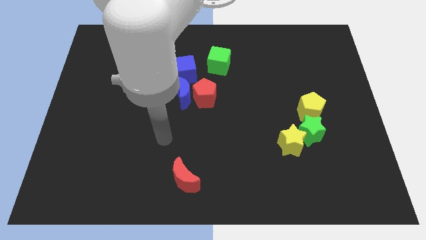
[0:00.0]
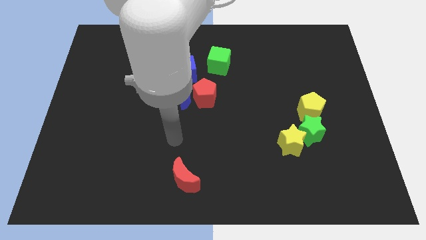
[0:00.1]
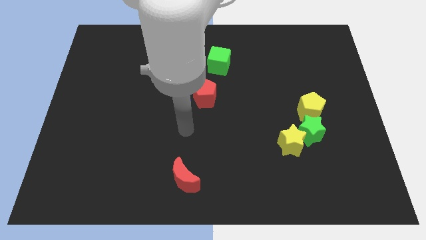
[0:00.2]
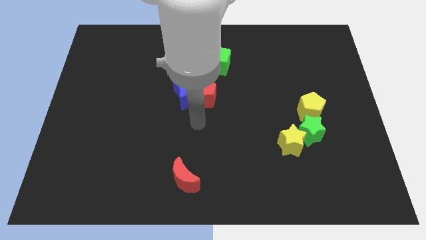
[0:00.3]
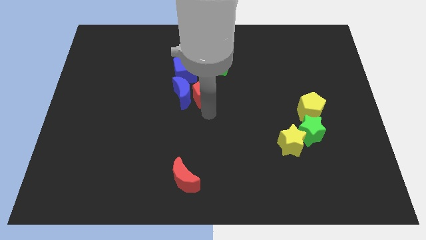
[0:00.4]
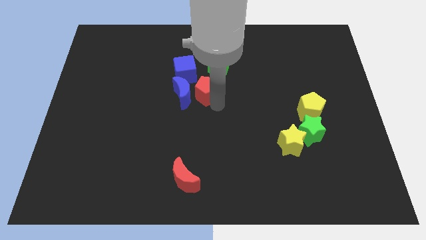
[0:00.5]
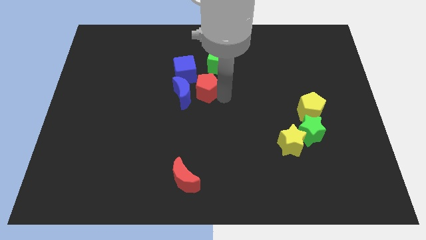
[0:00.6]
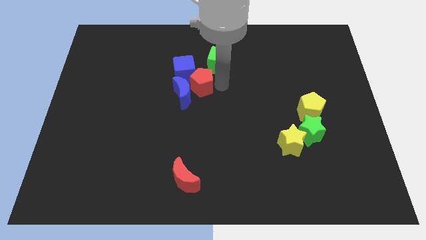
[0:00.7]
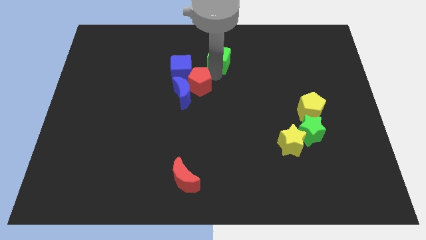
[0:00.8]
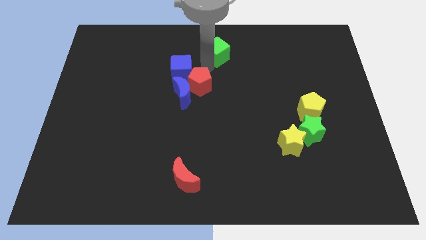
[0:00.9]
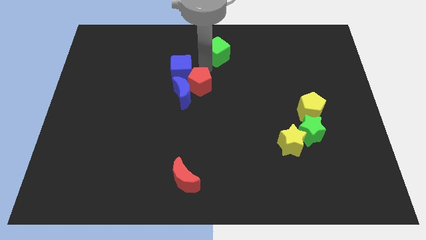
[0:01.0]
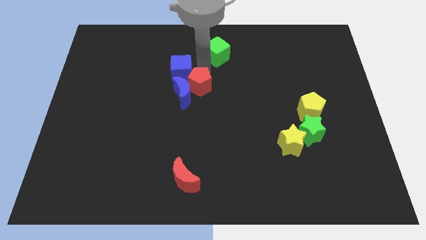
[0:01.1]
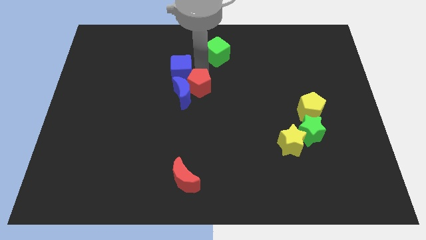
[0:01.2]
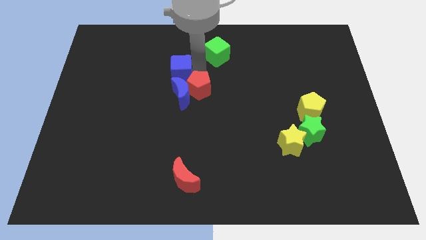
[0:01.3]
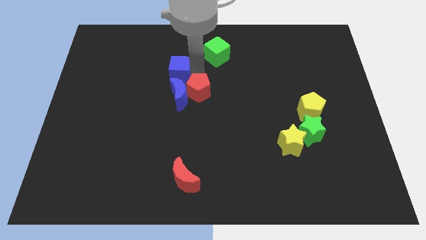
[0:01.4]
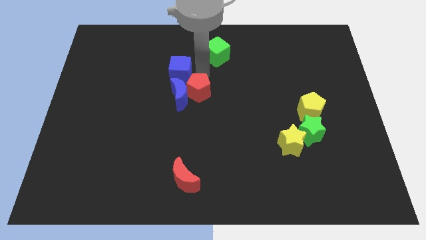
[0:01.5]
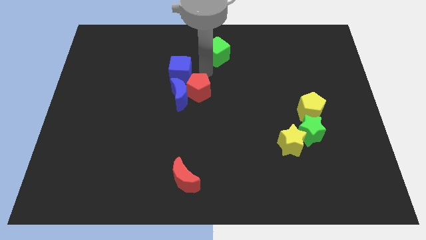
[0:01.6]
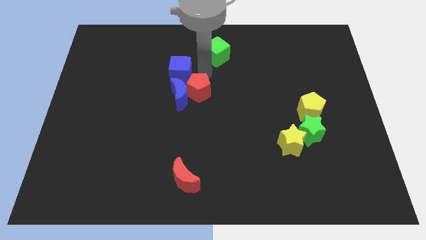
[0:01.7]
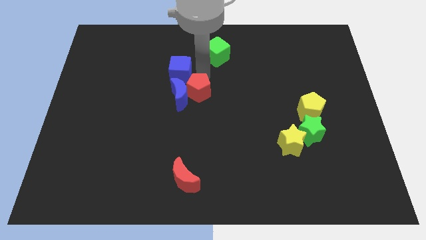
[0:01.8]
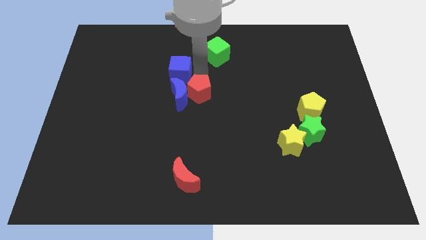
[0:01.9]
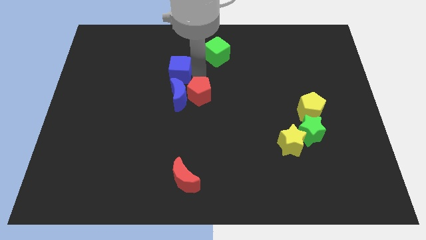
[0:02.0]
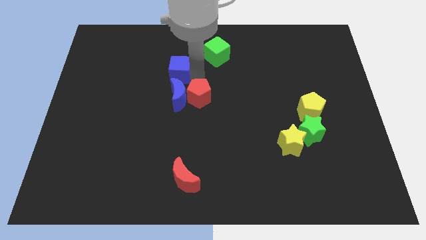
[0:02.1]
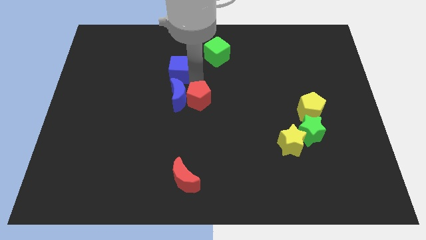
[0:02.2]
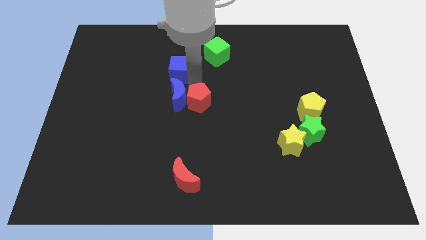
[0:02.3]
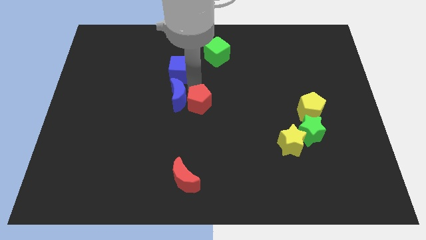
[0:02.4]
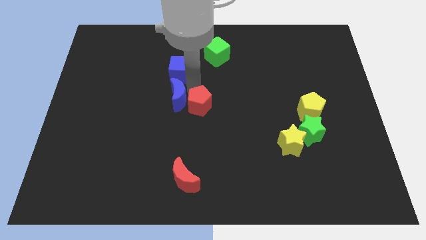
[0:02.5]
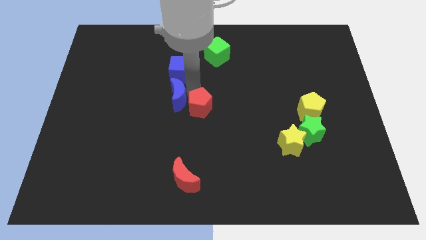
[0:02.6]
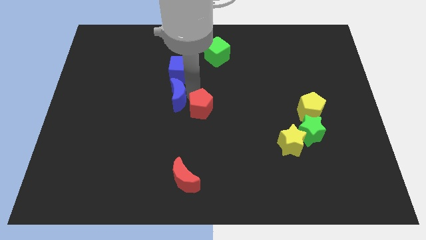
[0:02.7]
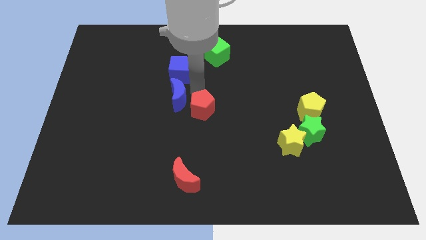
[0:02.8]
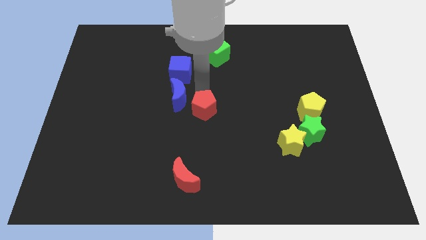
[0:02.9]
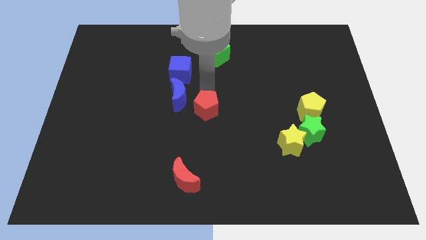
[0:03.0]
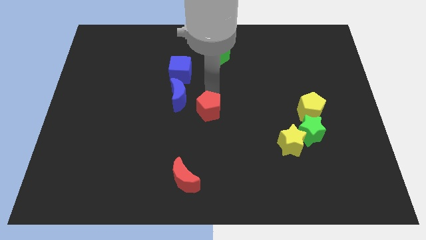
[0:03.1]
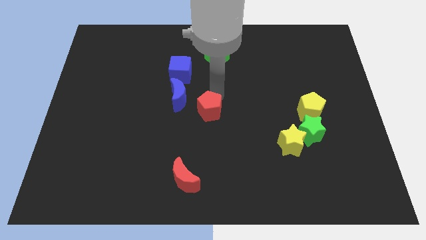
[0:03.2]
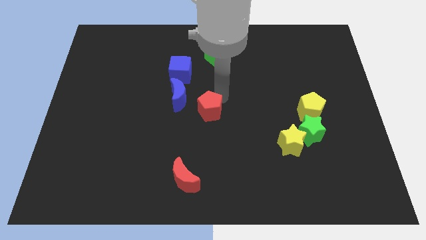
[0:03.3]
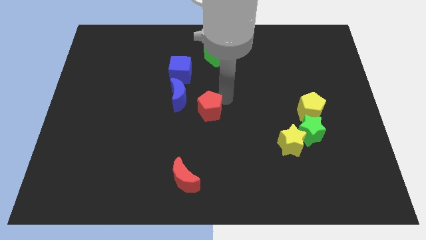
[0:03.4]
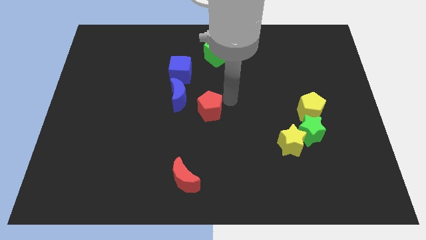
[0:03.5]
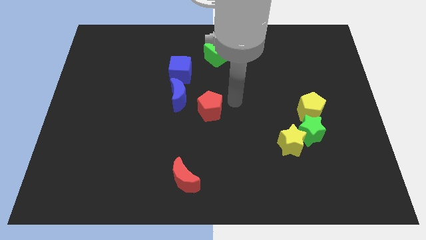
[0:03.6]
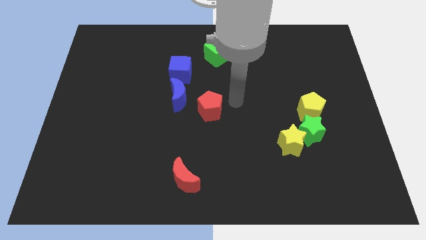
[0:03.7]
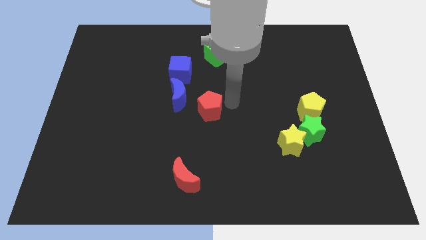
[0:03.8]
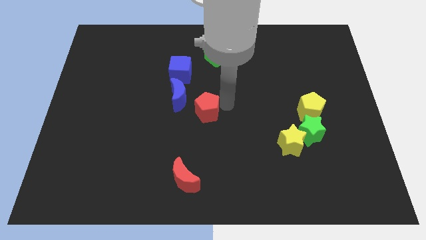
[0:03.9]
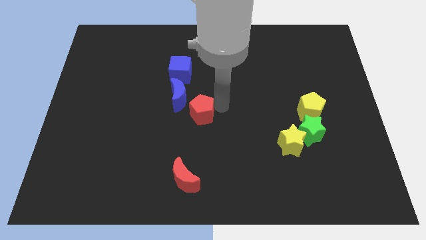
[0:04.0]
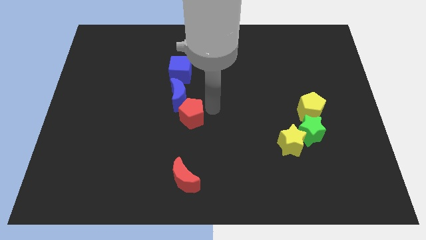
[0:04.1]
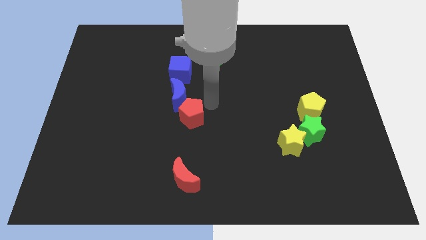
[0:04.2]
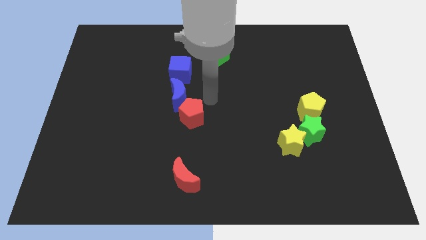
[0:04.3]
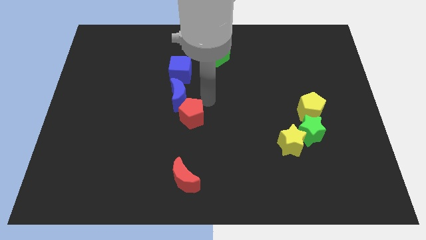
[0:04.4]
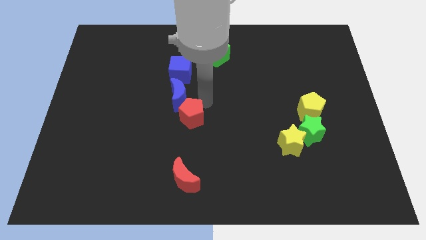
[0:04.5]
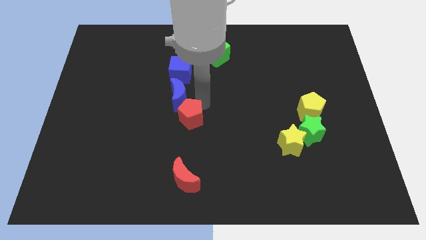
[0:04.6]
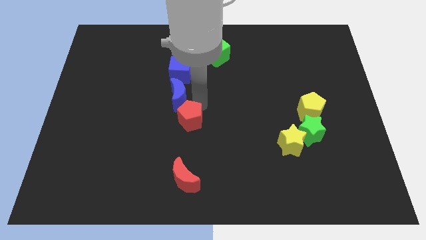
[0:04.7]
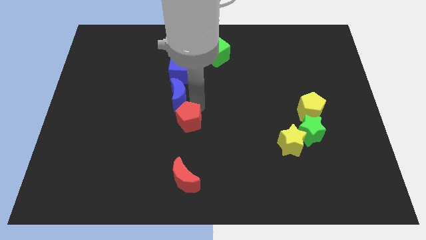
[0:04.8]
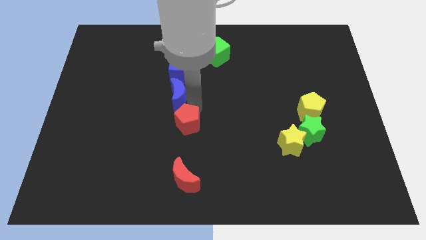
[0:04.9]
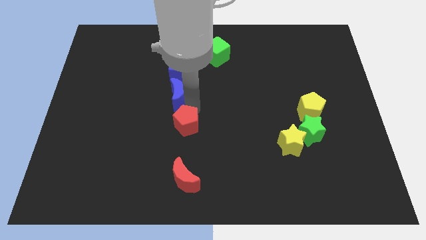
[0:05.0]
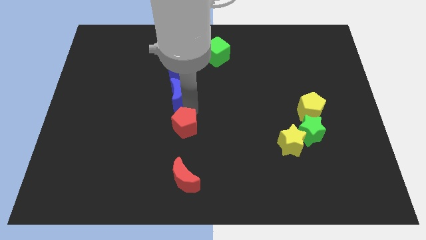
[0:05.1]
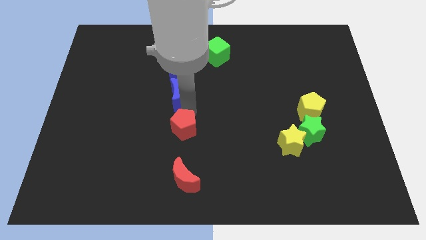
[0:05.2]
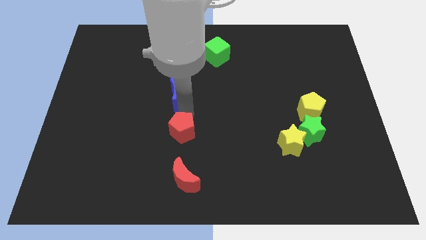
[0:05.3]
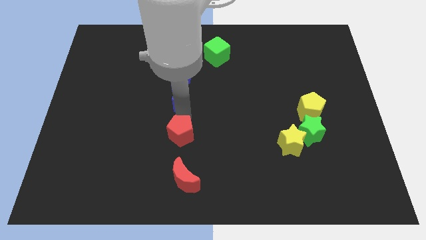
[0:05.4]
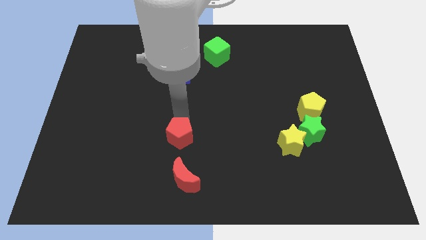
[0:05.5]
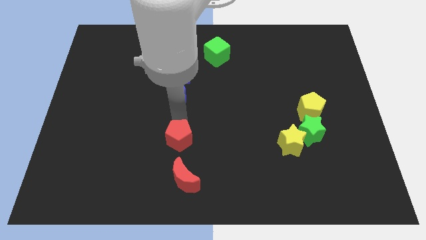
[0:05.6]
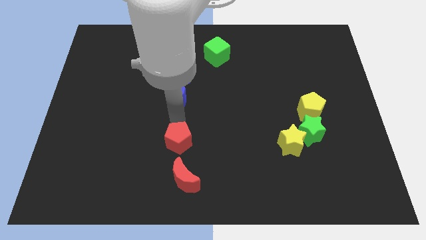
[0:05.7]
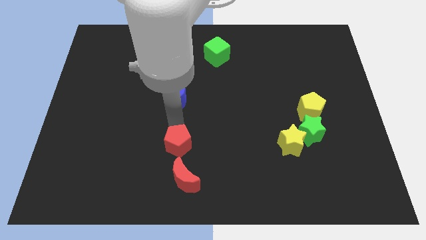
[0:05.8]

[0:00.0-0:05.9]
move the red pentagon to the top left of the red moon

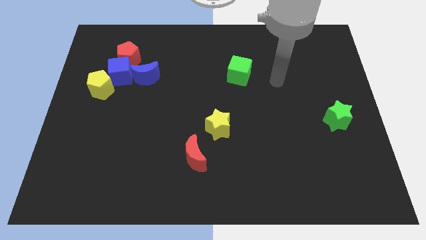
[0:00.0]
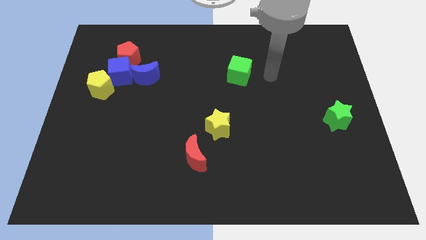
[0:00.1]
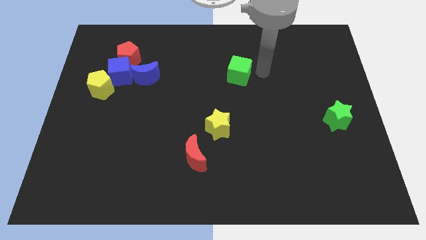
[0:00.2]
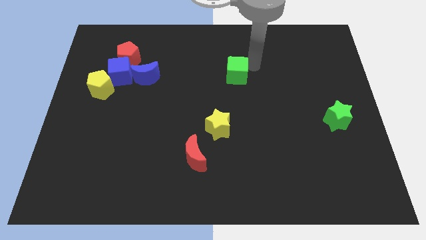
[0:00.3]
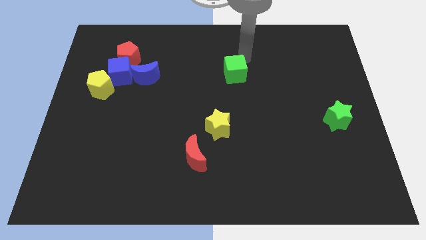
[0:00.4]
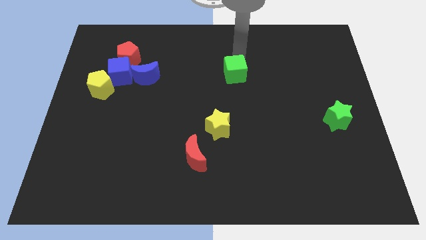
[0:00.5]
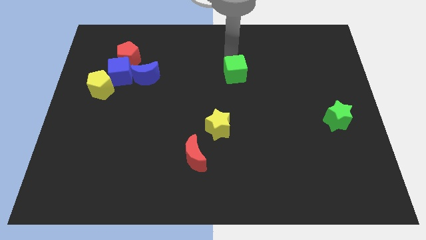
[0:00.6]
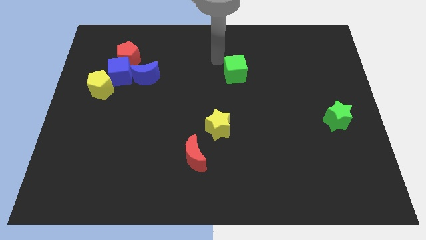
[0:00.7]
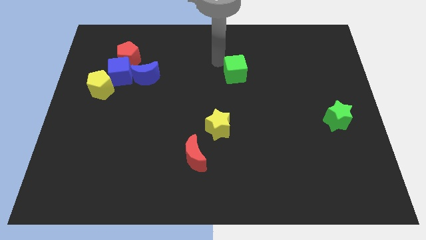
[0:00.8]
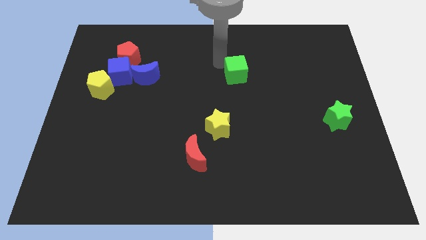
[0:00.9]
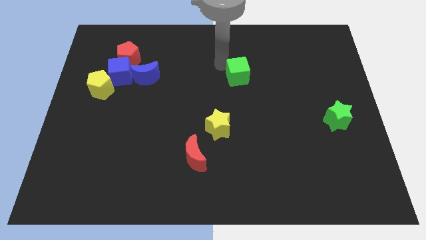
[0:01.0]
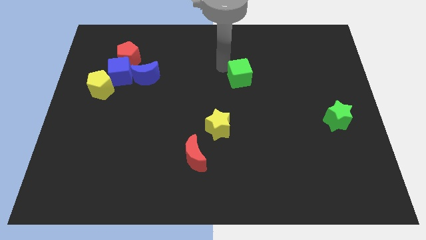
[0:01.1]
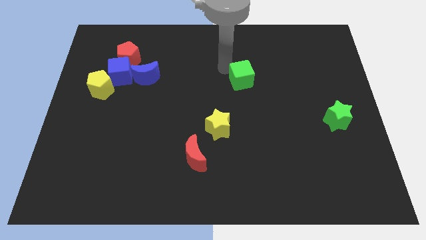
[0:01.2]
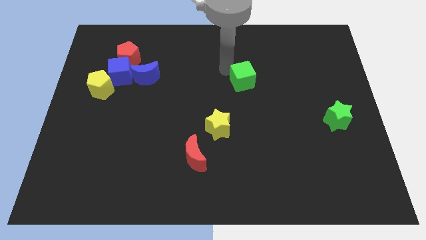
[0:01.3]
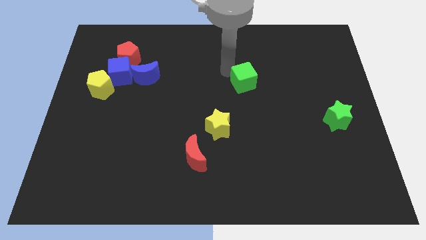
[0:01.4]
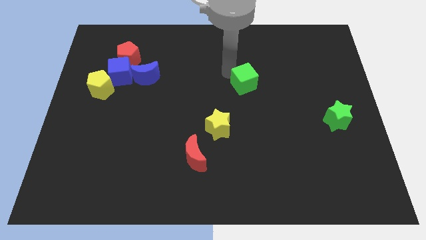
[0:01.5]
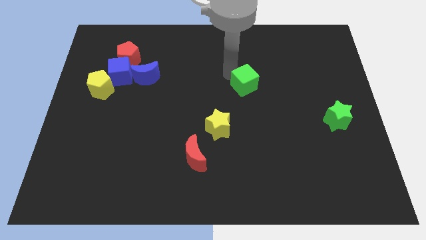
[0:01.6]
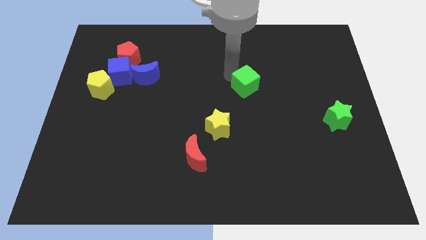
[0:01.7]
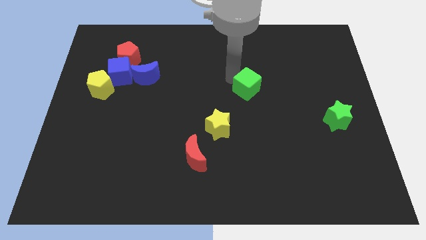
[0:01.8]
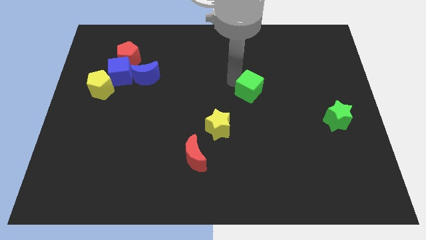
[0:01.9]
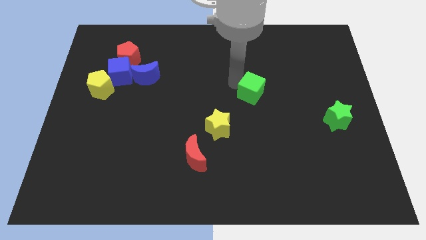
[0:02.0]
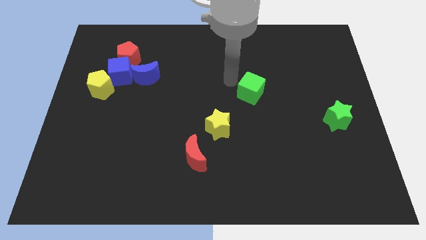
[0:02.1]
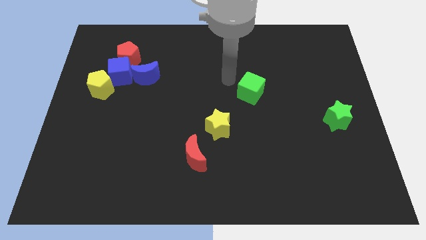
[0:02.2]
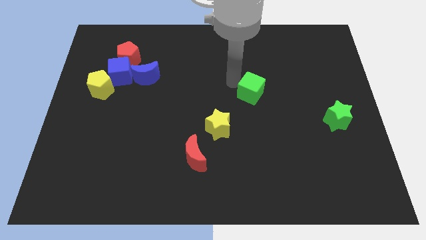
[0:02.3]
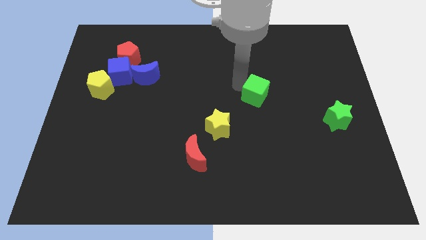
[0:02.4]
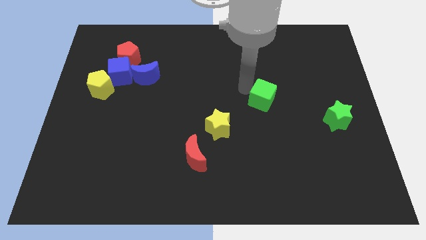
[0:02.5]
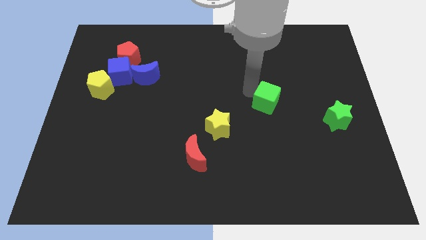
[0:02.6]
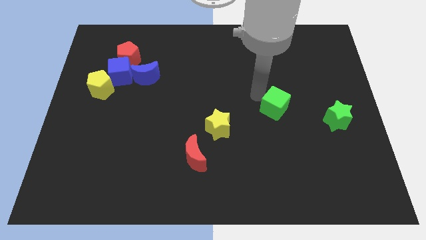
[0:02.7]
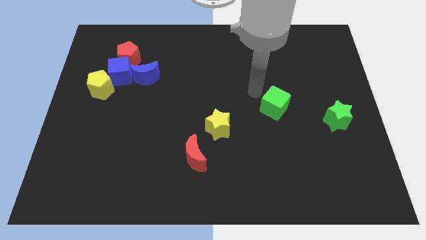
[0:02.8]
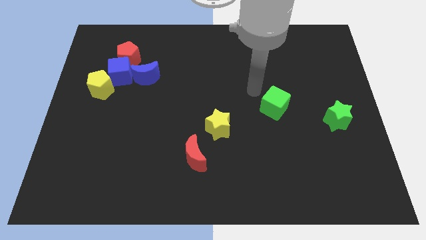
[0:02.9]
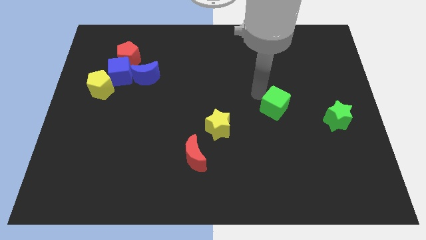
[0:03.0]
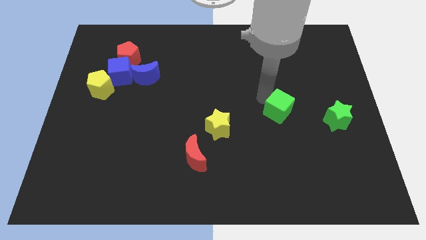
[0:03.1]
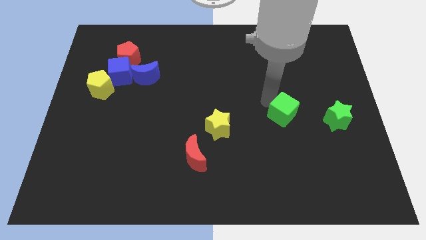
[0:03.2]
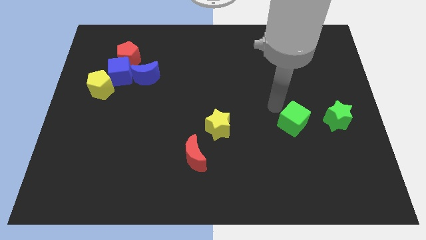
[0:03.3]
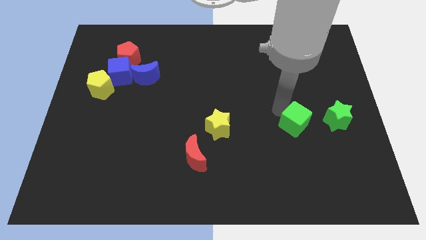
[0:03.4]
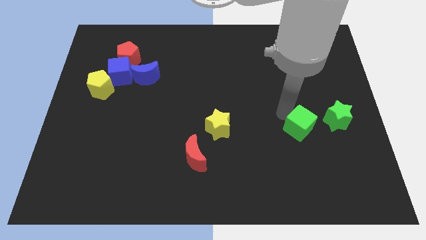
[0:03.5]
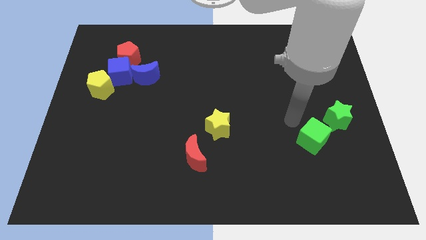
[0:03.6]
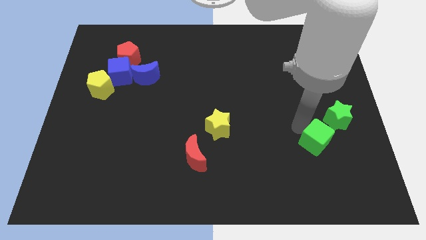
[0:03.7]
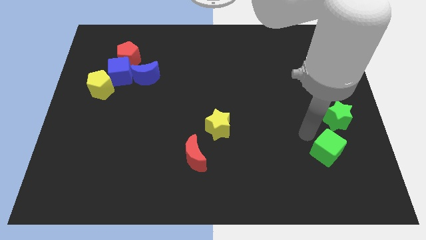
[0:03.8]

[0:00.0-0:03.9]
put the green cube to the bottom side of the green star
